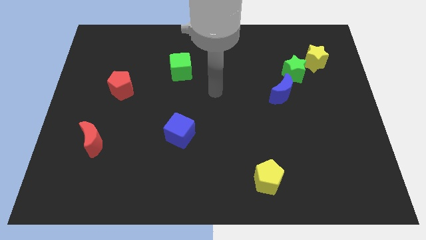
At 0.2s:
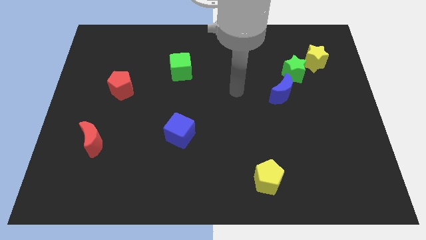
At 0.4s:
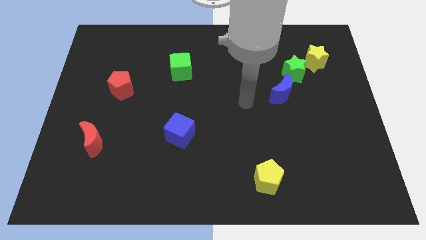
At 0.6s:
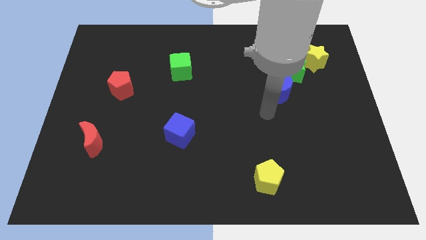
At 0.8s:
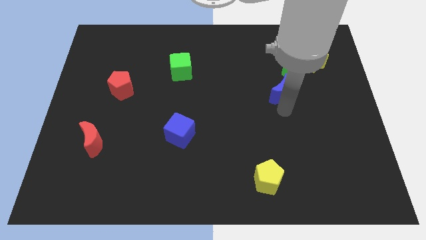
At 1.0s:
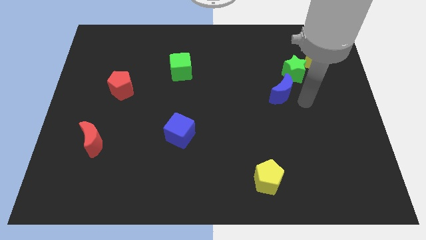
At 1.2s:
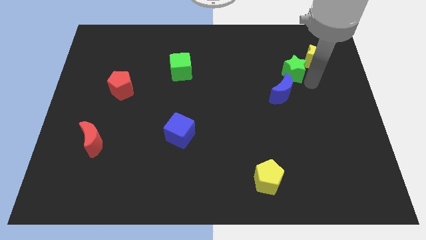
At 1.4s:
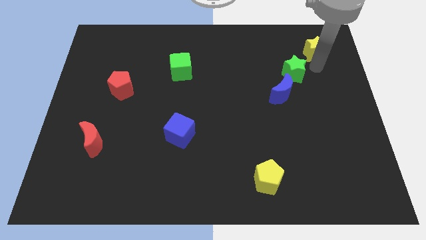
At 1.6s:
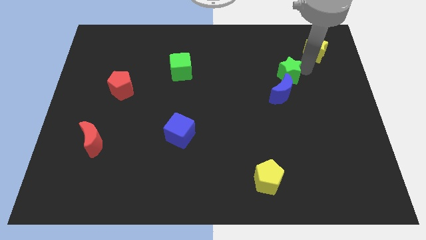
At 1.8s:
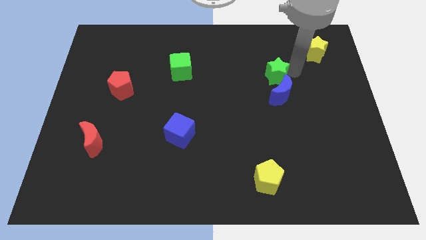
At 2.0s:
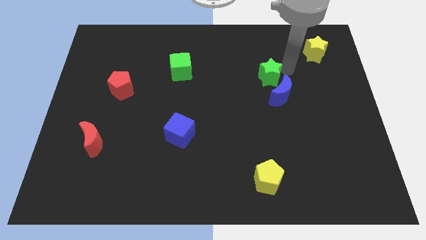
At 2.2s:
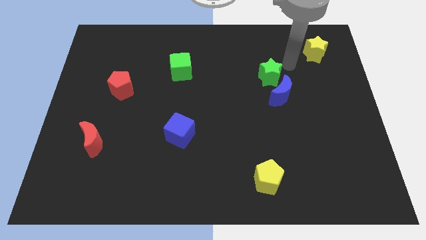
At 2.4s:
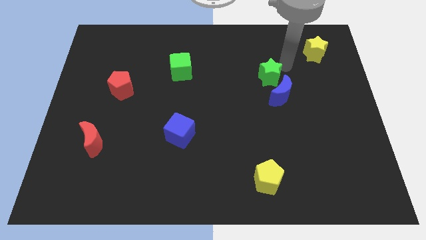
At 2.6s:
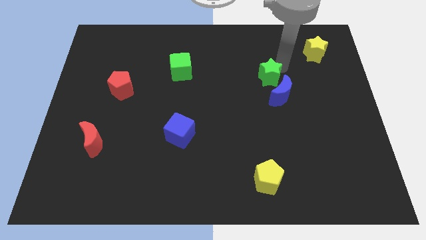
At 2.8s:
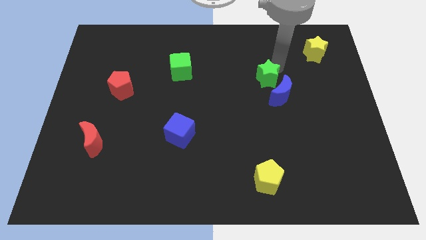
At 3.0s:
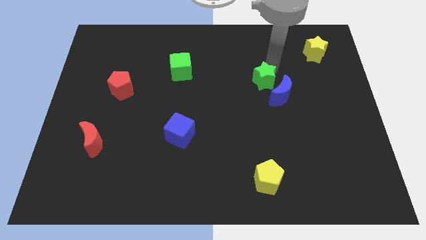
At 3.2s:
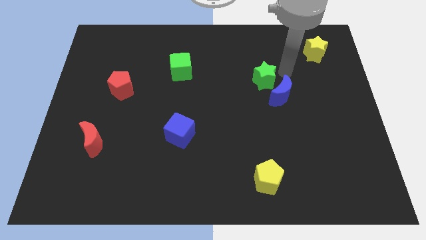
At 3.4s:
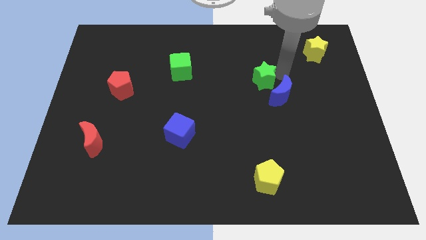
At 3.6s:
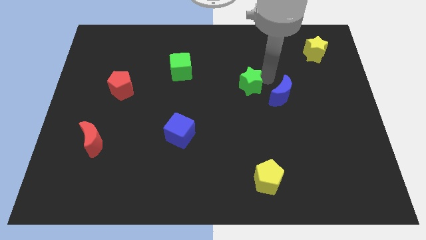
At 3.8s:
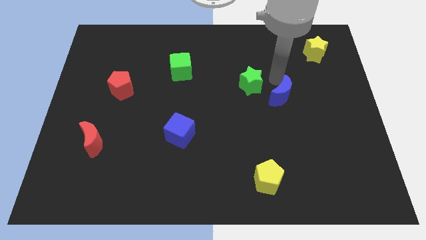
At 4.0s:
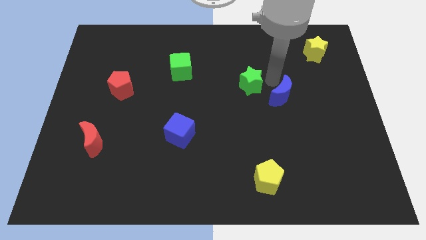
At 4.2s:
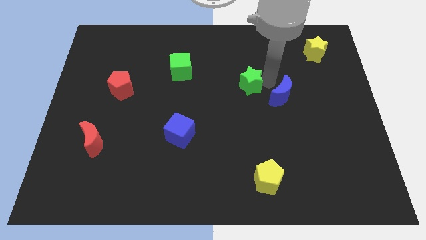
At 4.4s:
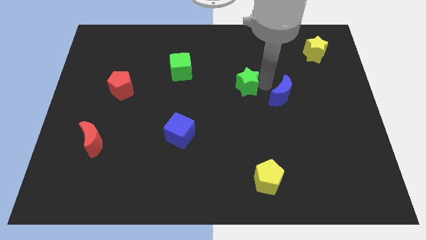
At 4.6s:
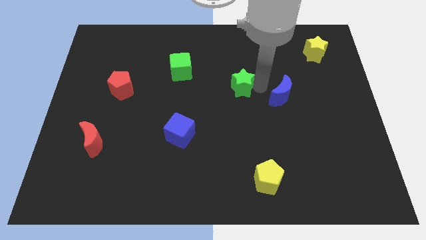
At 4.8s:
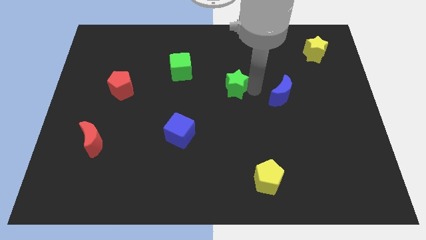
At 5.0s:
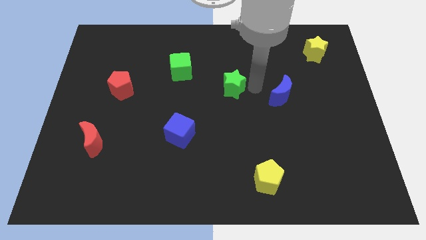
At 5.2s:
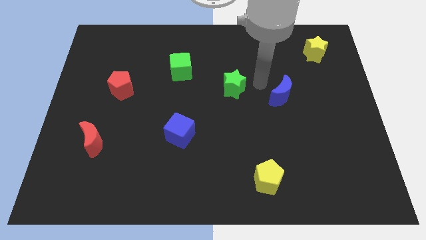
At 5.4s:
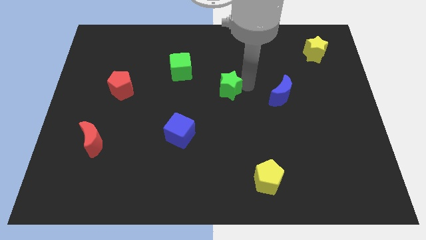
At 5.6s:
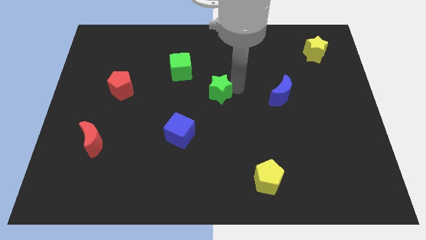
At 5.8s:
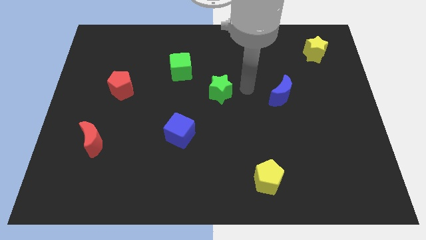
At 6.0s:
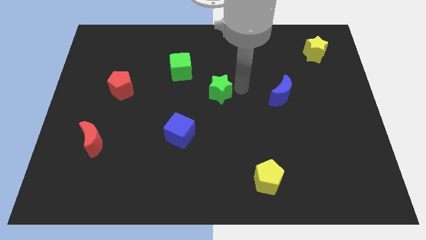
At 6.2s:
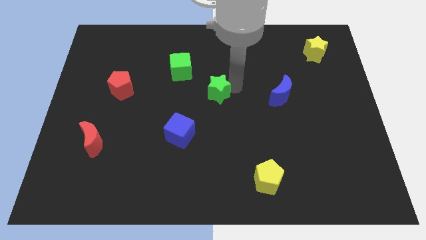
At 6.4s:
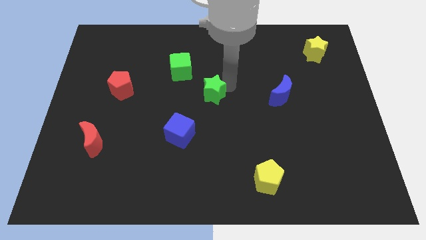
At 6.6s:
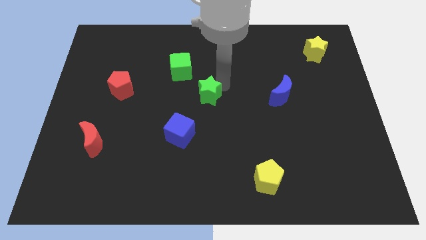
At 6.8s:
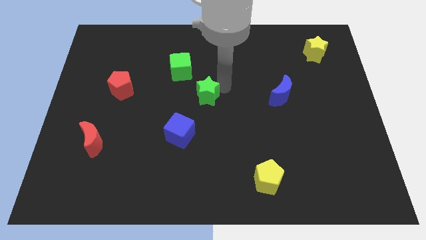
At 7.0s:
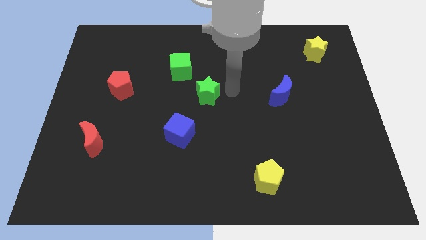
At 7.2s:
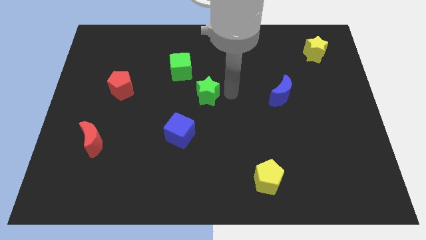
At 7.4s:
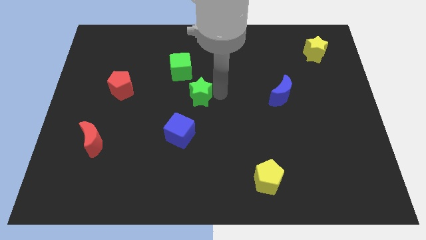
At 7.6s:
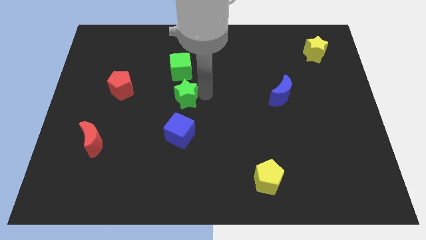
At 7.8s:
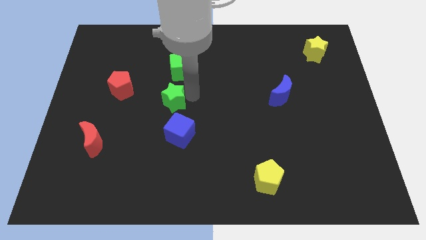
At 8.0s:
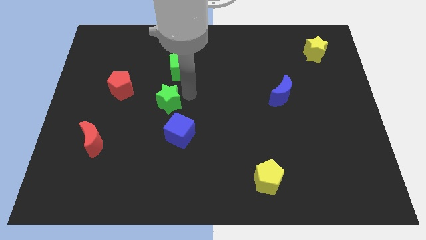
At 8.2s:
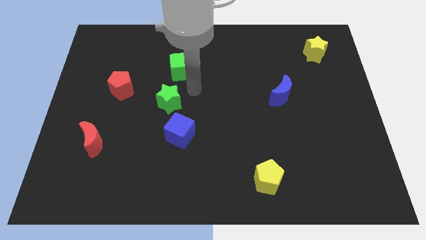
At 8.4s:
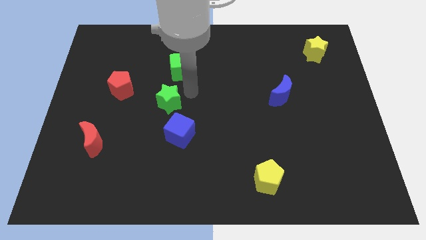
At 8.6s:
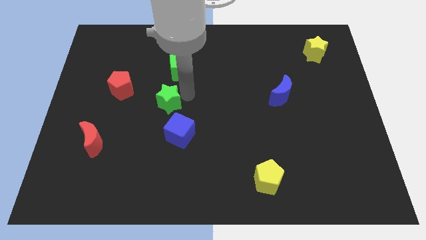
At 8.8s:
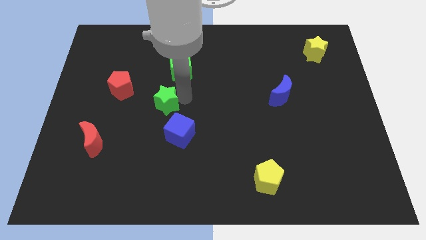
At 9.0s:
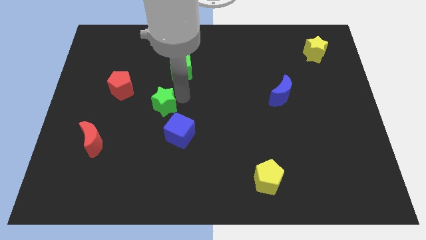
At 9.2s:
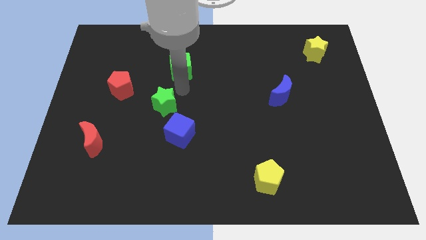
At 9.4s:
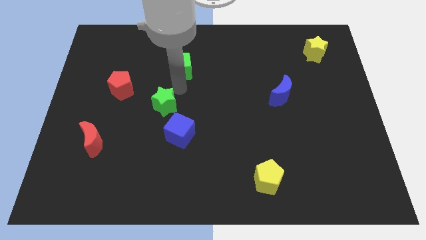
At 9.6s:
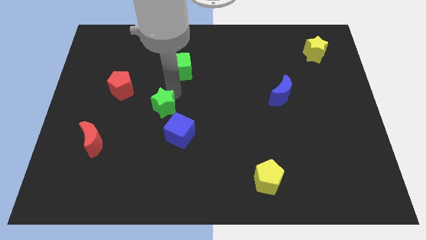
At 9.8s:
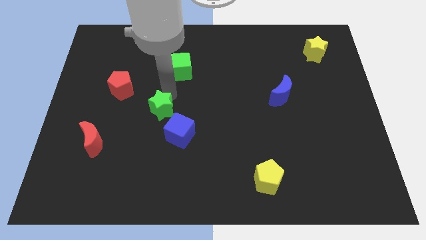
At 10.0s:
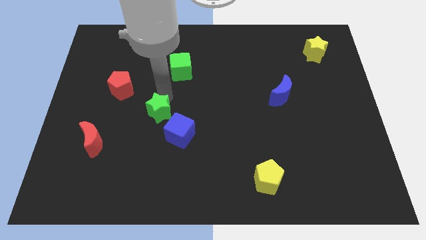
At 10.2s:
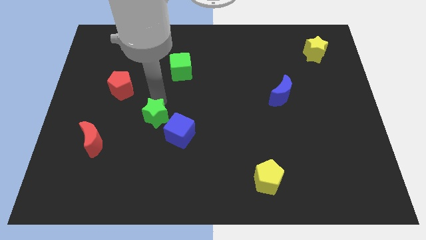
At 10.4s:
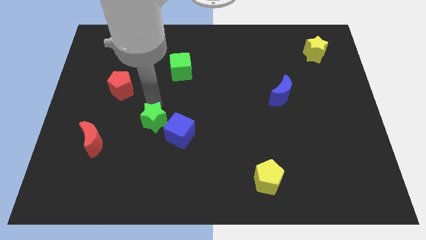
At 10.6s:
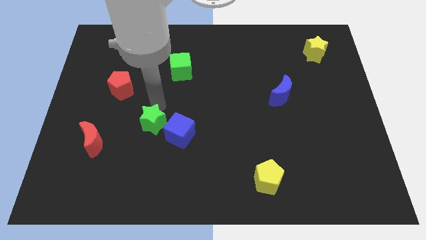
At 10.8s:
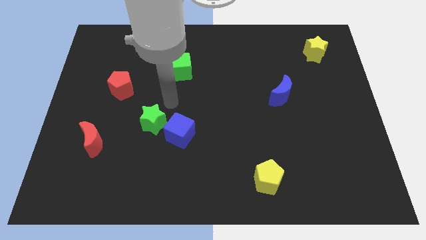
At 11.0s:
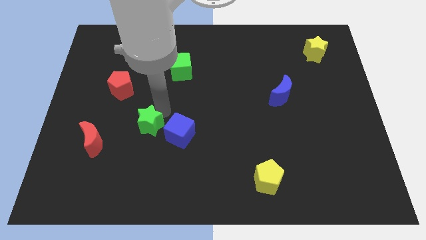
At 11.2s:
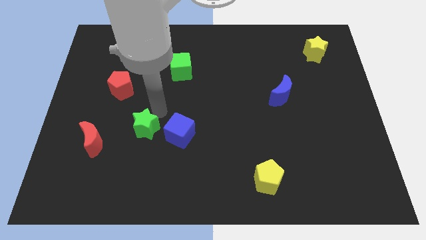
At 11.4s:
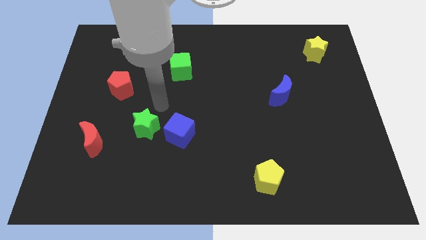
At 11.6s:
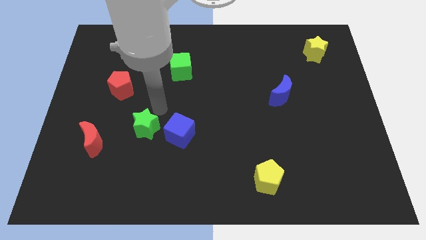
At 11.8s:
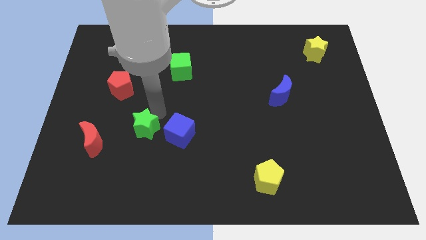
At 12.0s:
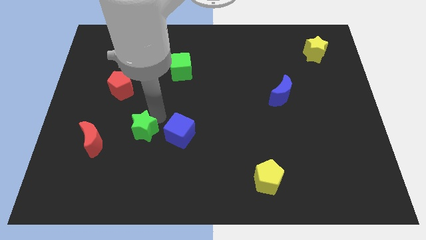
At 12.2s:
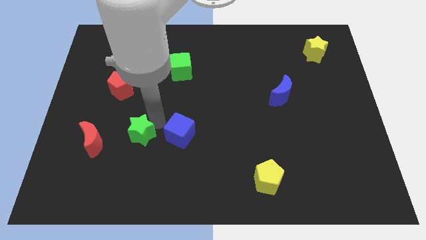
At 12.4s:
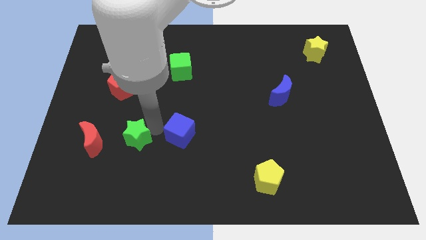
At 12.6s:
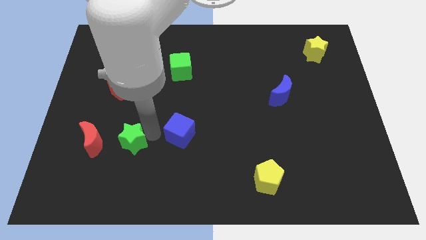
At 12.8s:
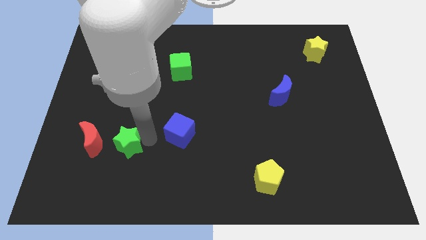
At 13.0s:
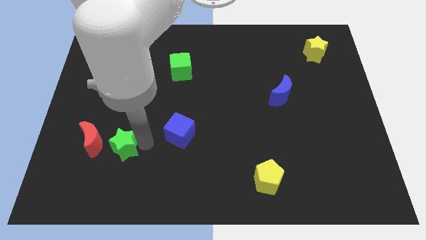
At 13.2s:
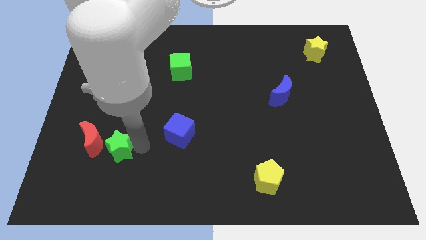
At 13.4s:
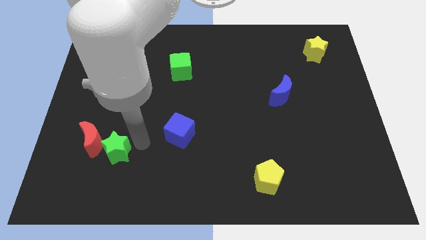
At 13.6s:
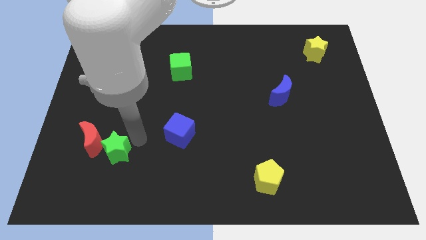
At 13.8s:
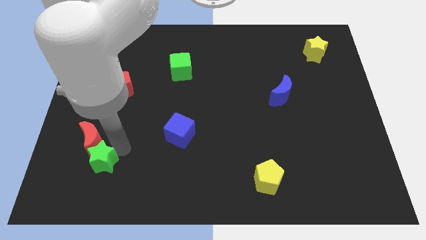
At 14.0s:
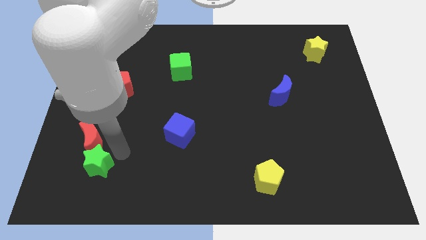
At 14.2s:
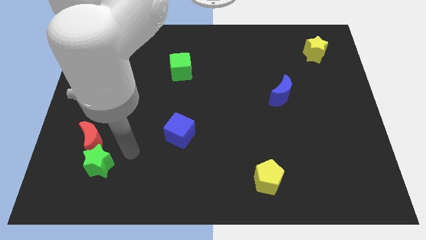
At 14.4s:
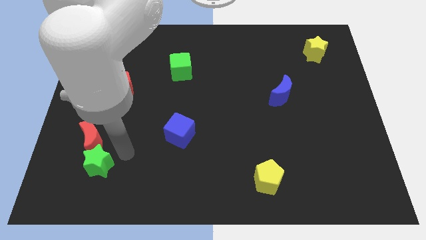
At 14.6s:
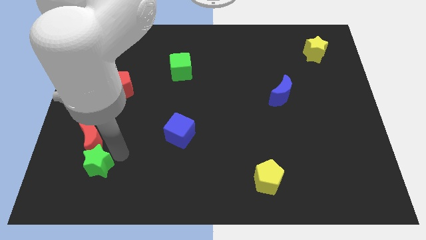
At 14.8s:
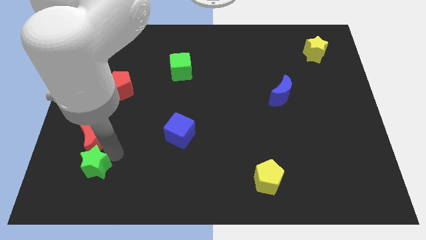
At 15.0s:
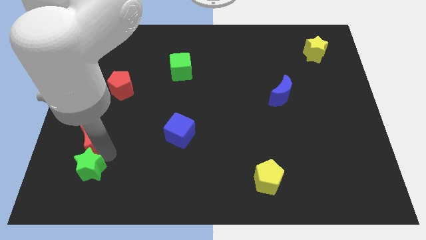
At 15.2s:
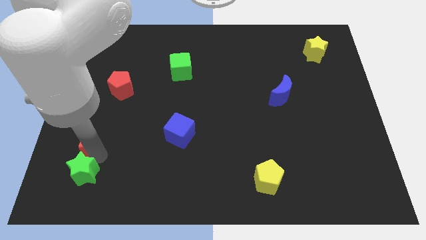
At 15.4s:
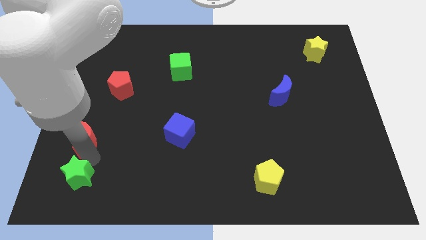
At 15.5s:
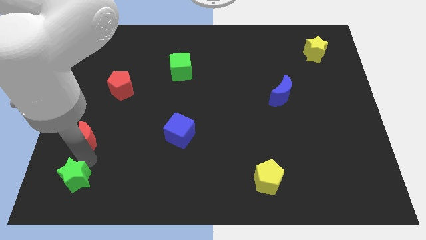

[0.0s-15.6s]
move the green star to the bottom left
